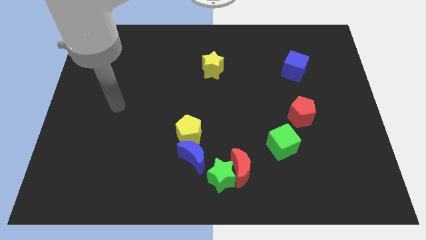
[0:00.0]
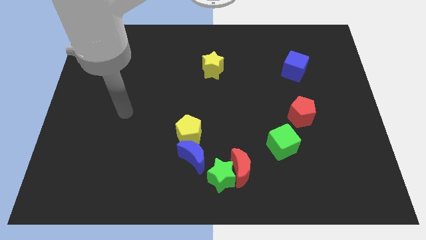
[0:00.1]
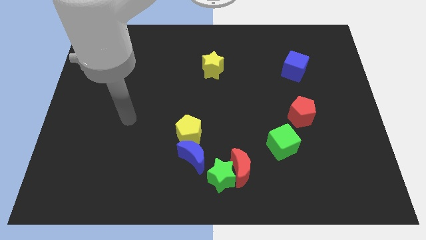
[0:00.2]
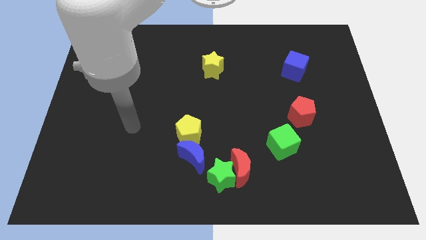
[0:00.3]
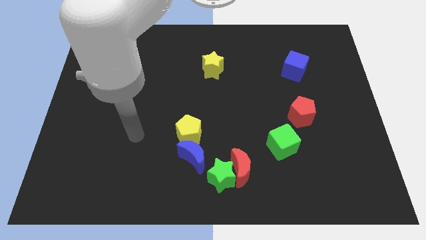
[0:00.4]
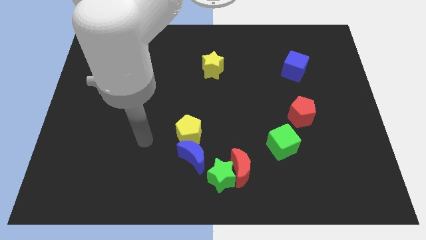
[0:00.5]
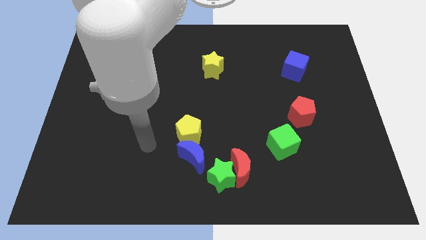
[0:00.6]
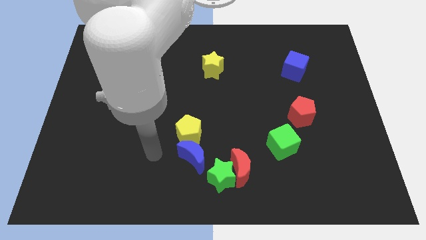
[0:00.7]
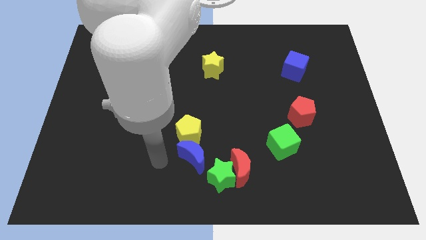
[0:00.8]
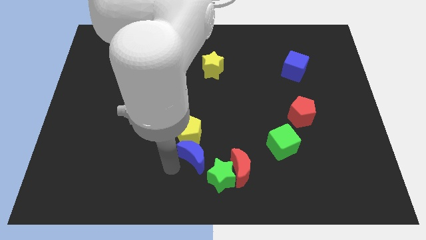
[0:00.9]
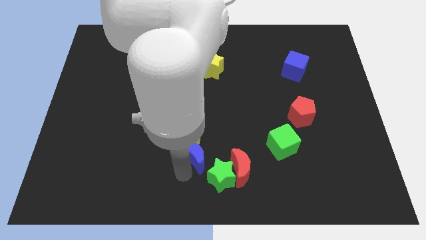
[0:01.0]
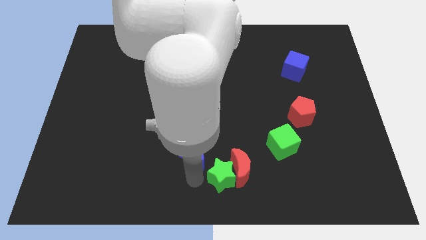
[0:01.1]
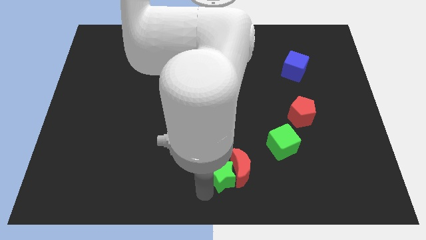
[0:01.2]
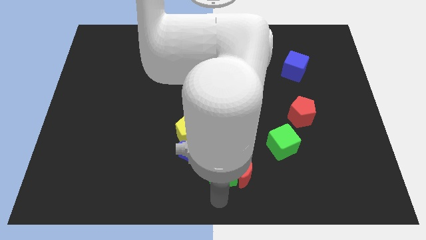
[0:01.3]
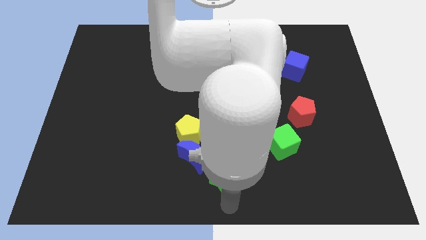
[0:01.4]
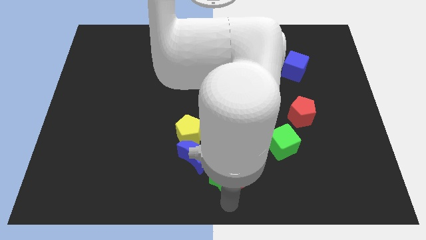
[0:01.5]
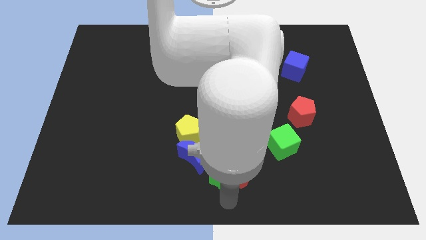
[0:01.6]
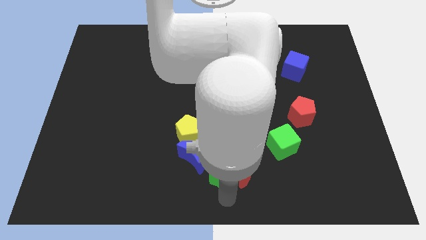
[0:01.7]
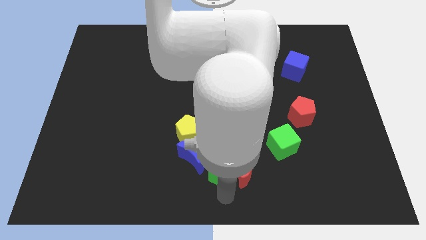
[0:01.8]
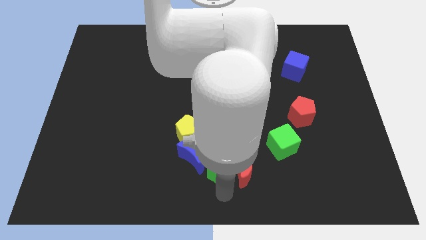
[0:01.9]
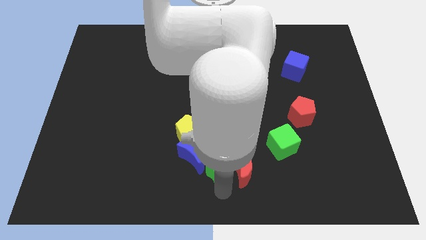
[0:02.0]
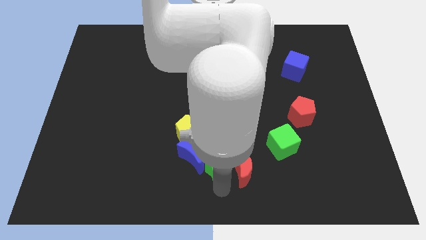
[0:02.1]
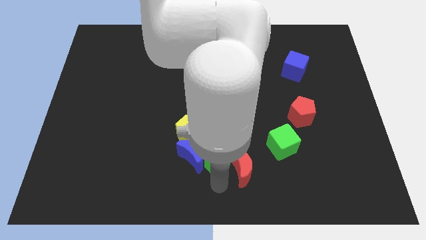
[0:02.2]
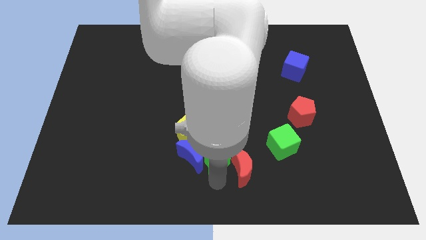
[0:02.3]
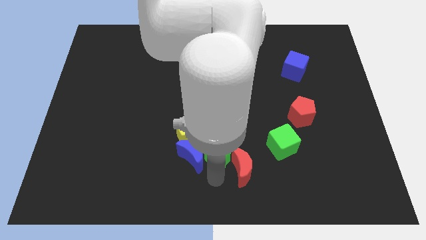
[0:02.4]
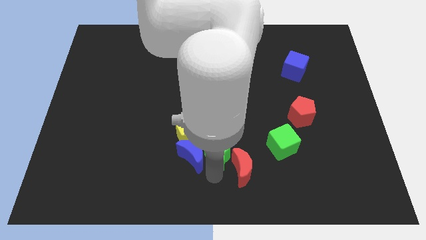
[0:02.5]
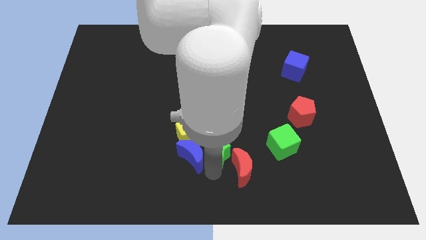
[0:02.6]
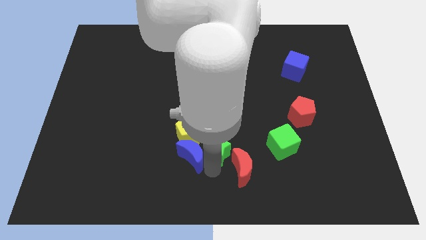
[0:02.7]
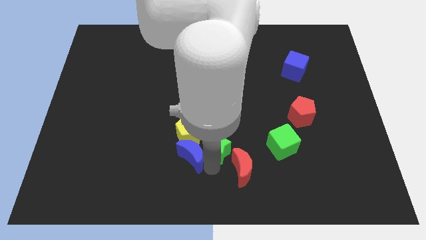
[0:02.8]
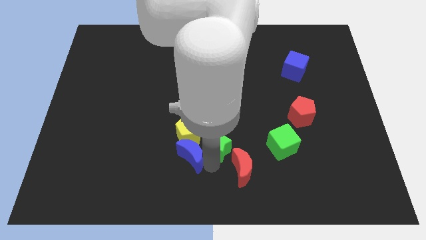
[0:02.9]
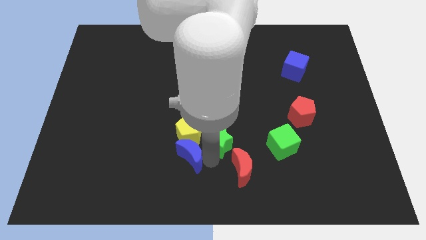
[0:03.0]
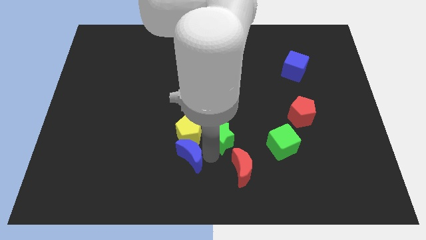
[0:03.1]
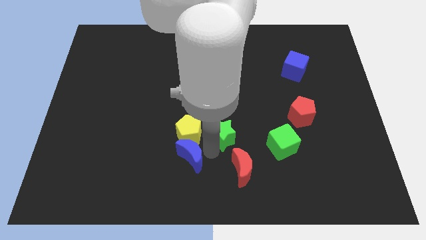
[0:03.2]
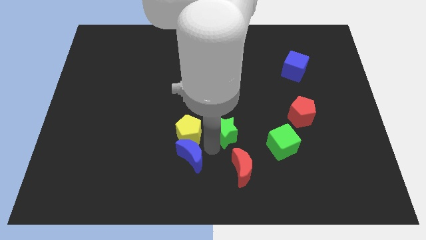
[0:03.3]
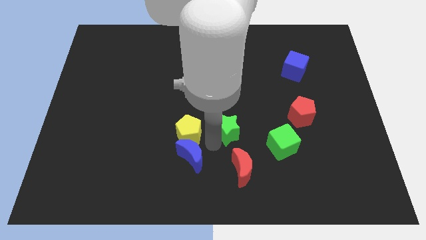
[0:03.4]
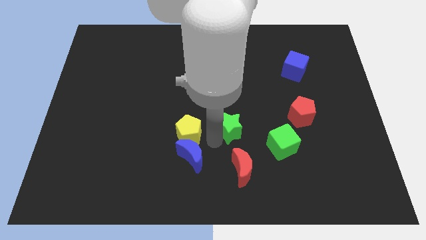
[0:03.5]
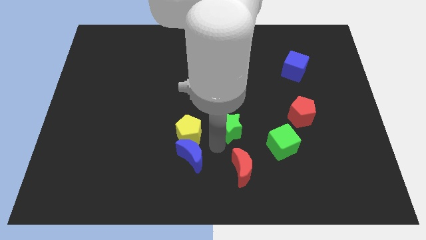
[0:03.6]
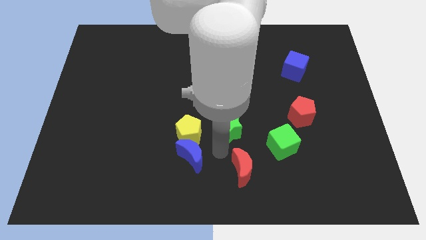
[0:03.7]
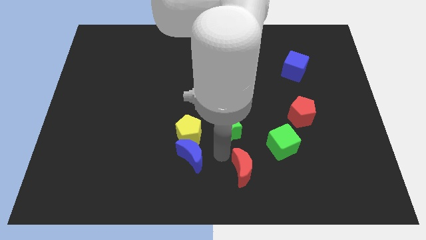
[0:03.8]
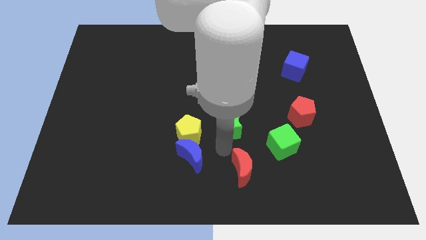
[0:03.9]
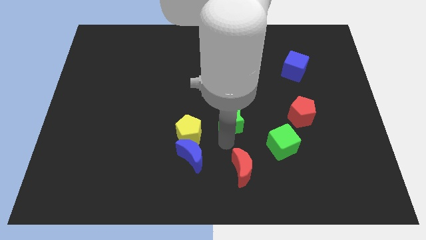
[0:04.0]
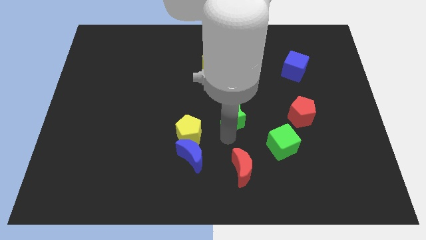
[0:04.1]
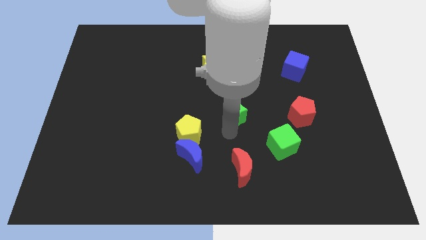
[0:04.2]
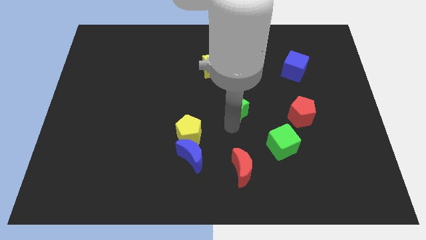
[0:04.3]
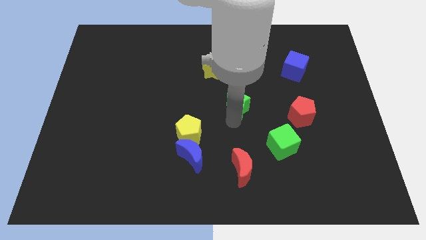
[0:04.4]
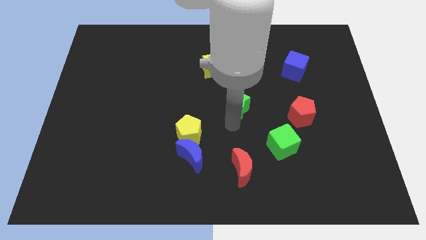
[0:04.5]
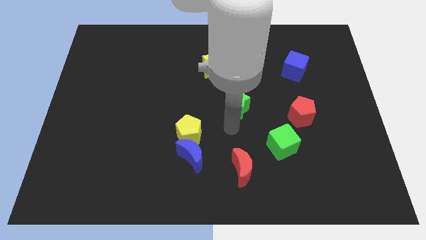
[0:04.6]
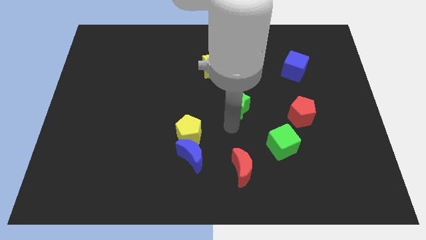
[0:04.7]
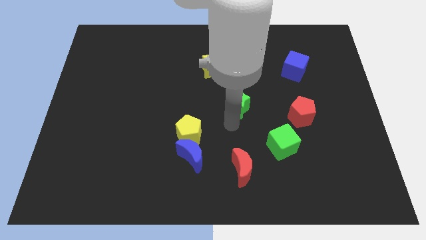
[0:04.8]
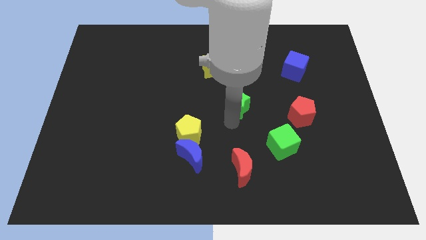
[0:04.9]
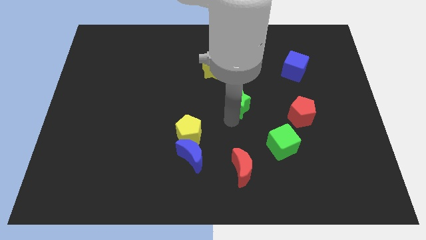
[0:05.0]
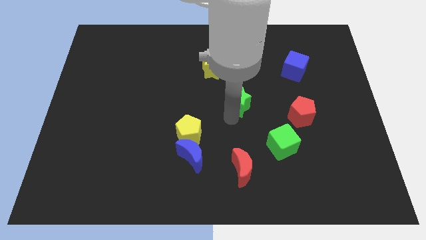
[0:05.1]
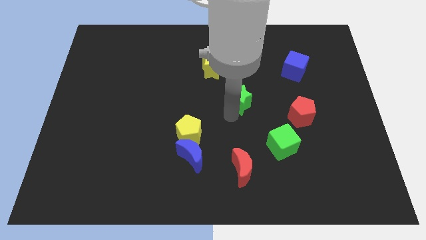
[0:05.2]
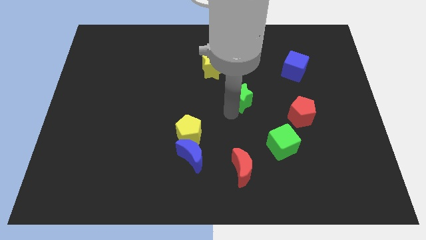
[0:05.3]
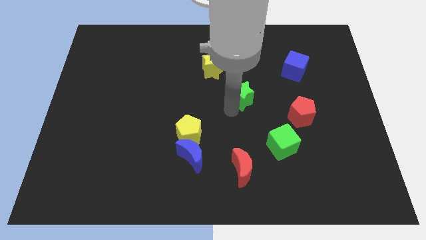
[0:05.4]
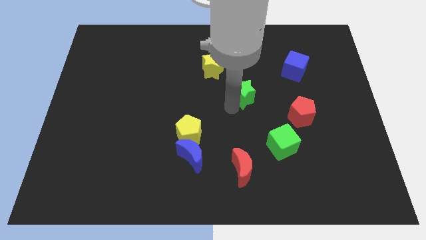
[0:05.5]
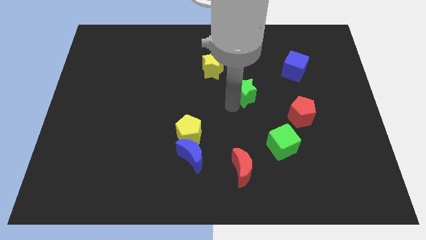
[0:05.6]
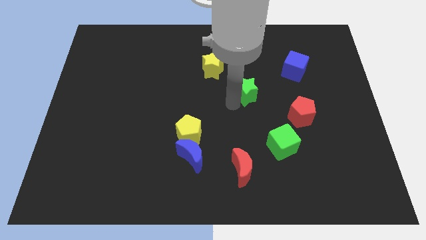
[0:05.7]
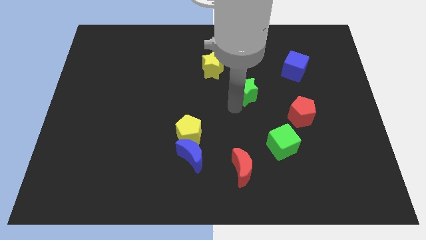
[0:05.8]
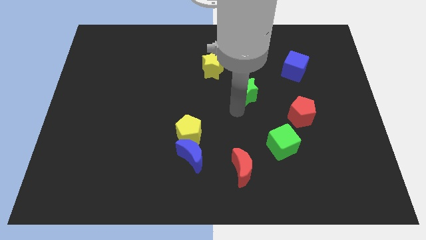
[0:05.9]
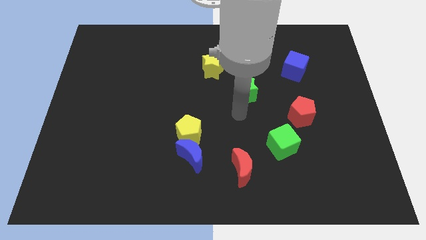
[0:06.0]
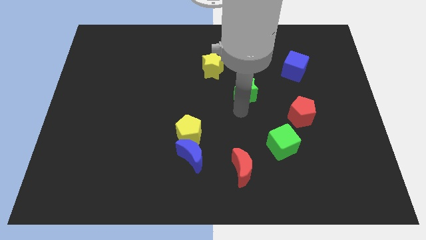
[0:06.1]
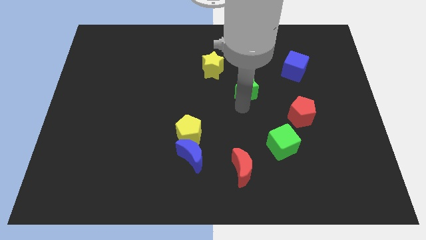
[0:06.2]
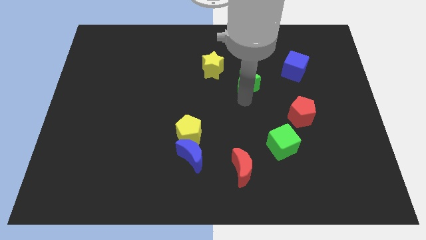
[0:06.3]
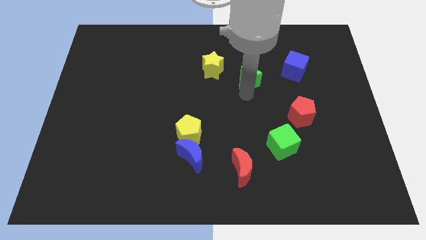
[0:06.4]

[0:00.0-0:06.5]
slide the green star left of the blue cube
